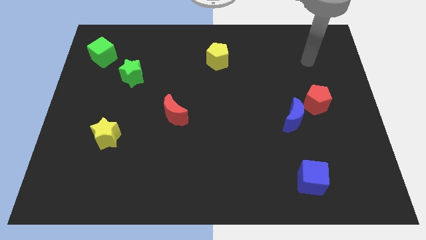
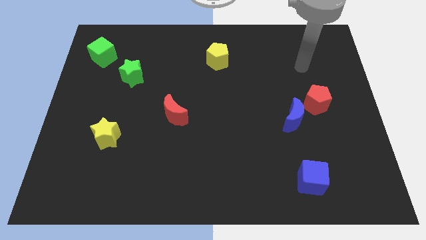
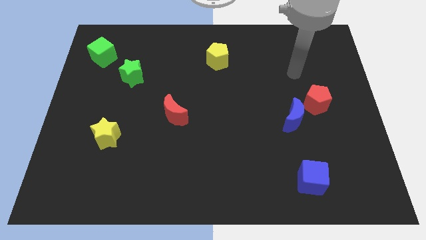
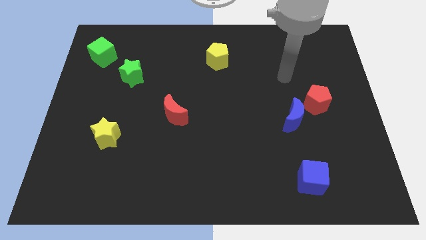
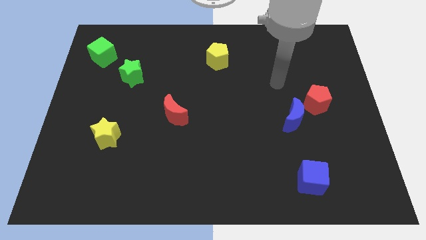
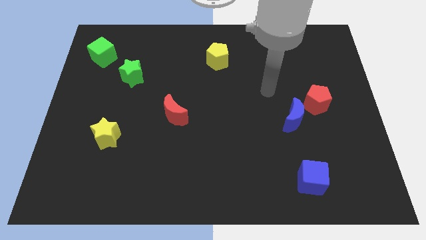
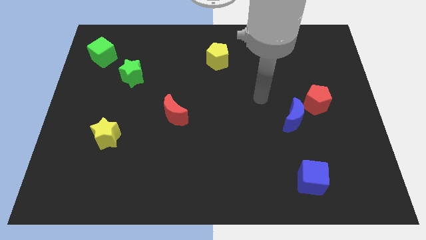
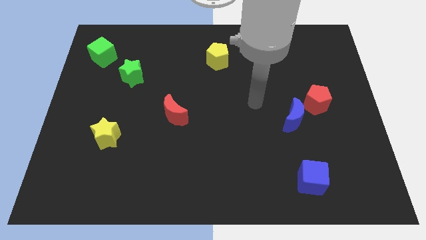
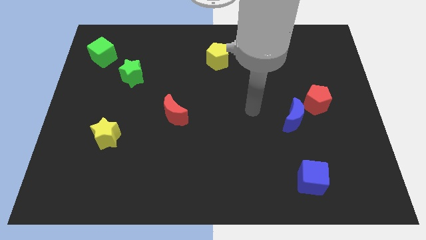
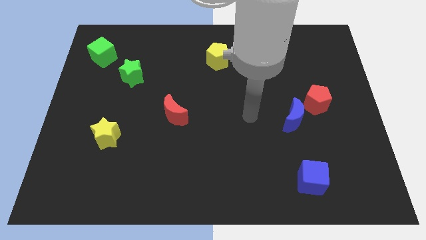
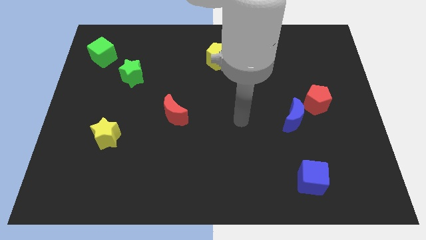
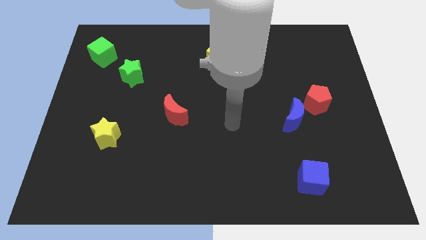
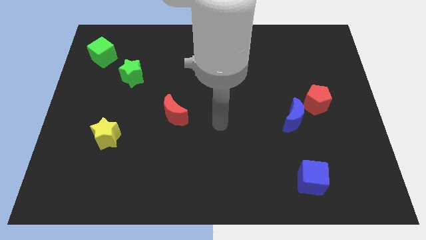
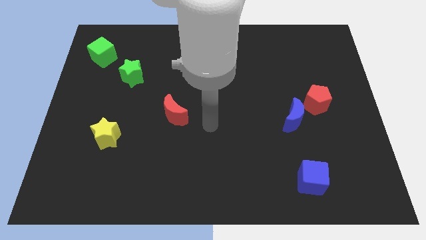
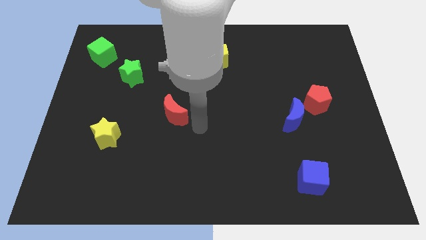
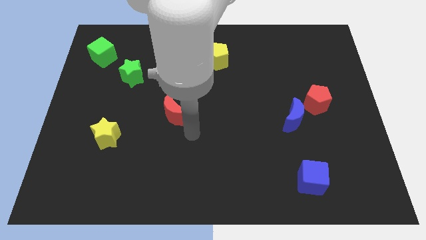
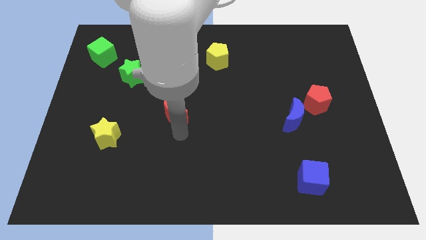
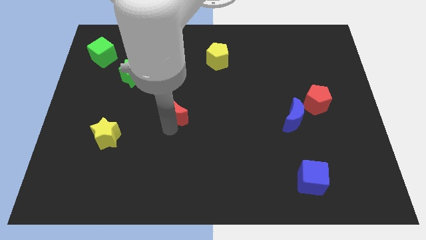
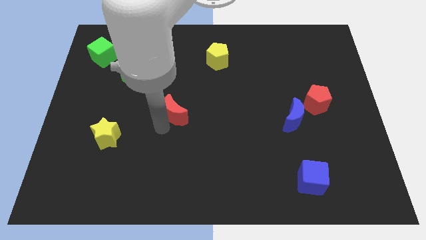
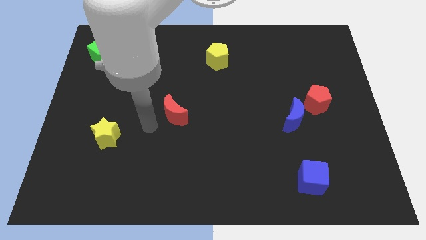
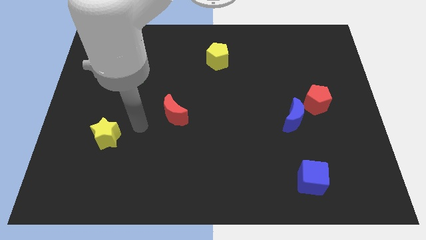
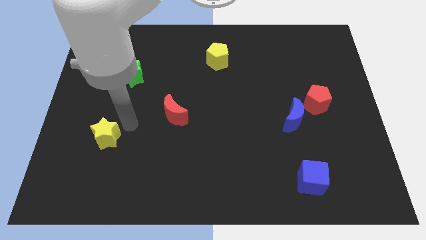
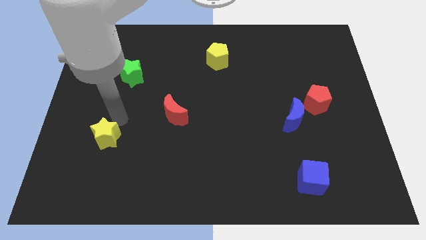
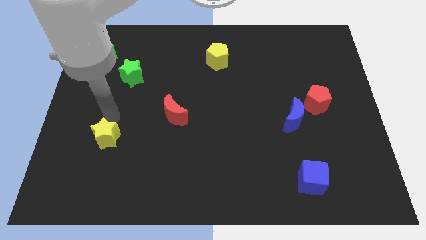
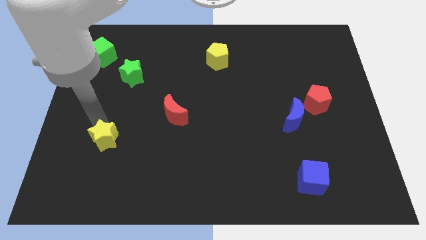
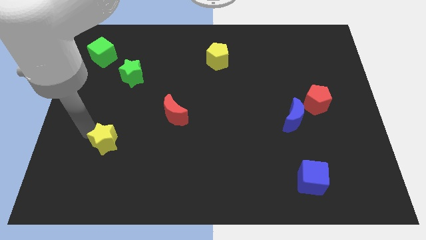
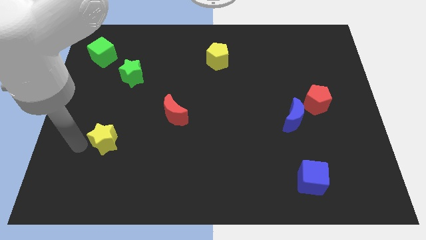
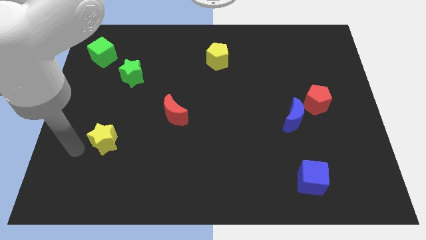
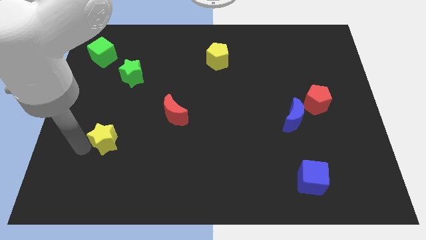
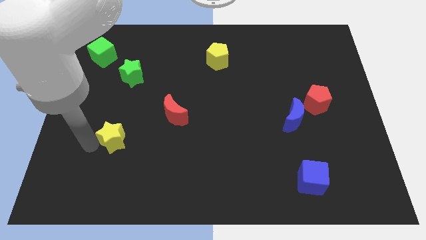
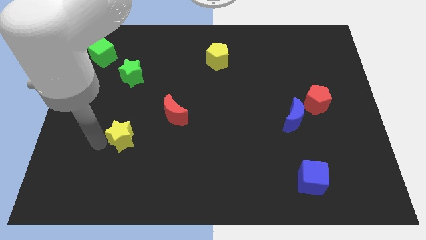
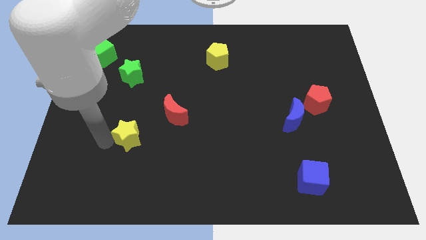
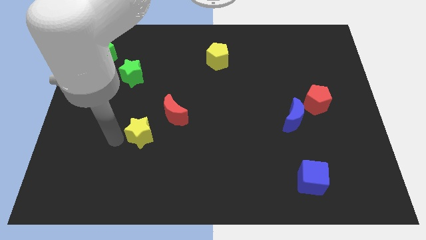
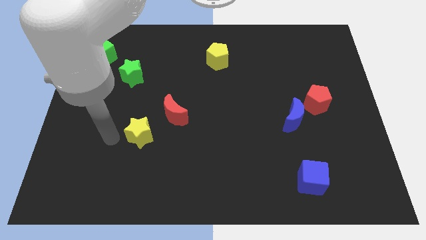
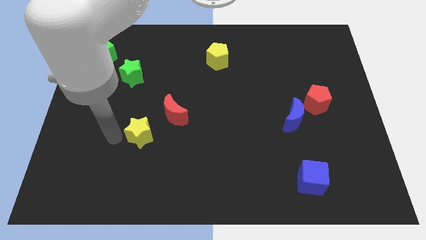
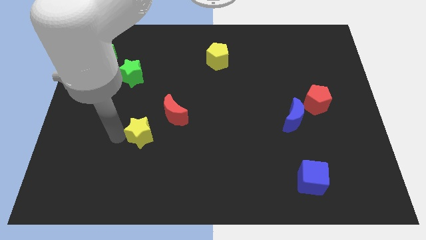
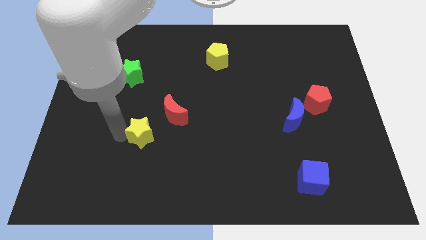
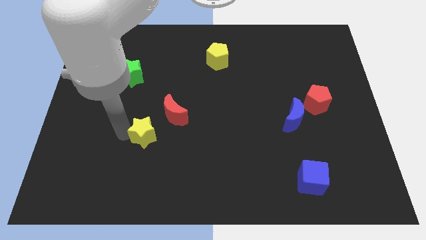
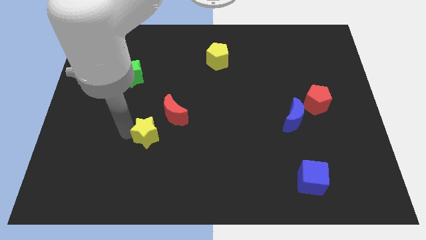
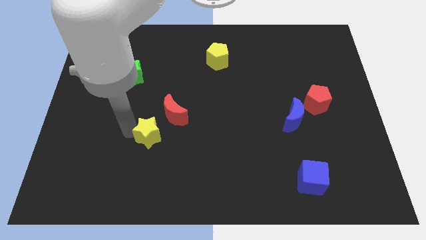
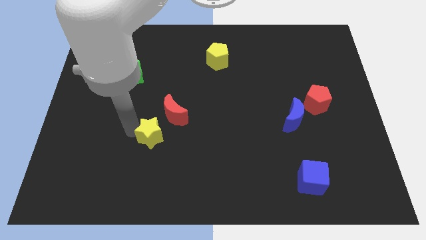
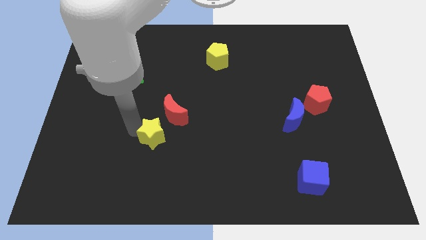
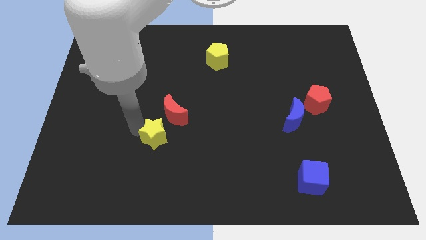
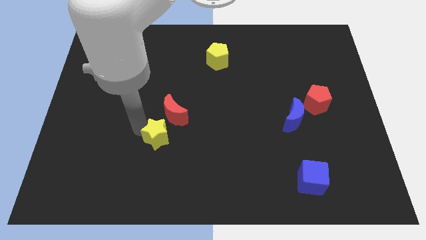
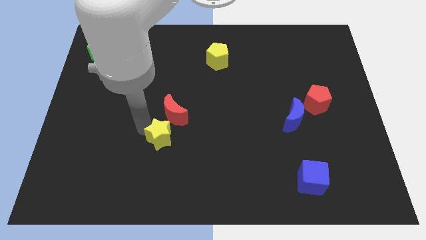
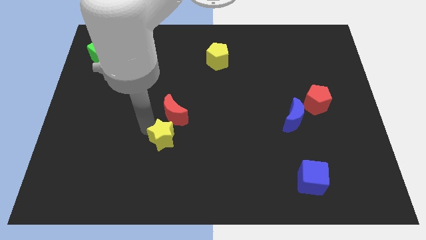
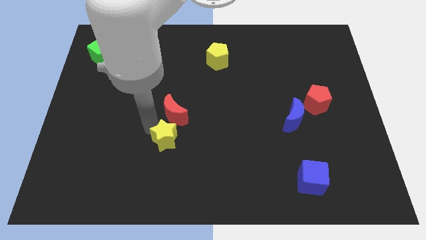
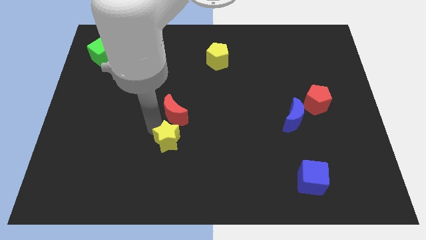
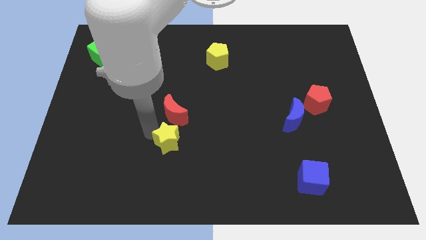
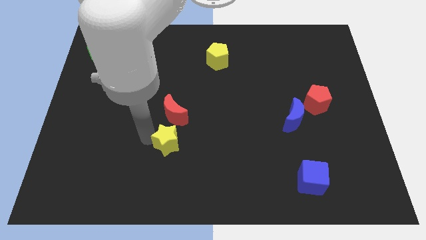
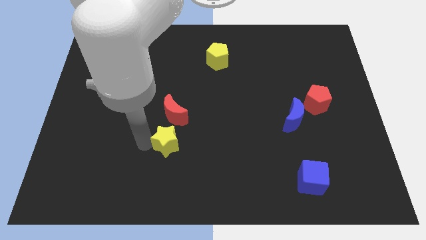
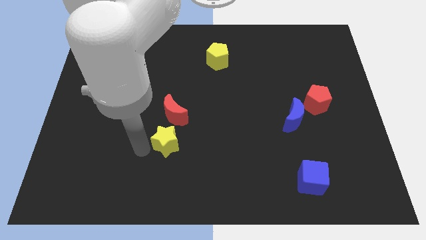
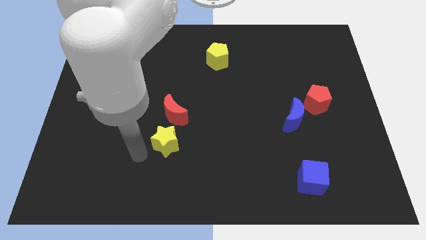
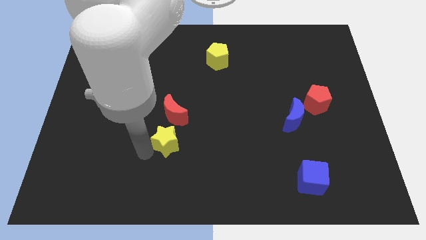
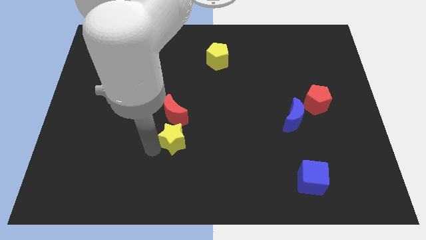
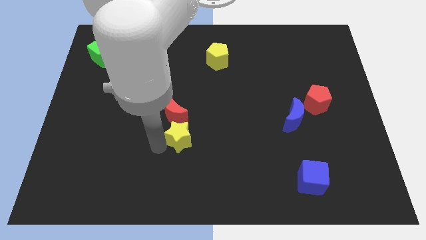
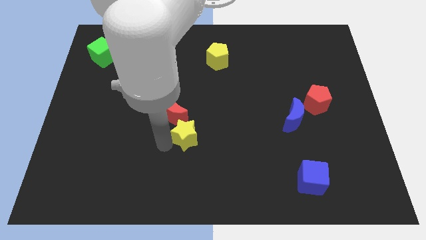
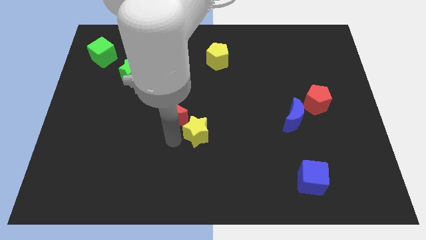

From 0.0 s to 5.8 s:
push the yellow star right

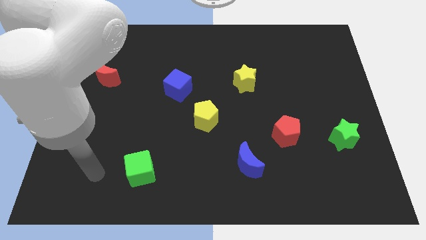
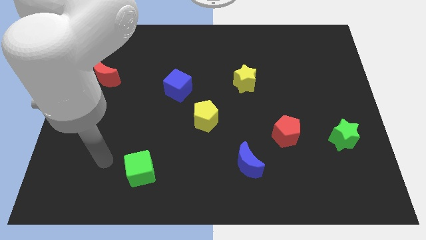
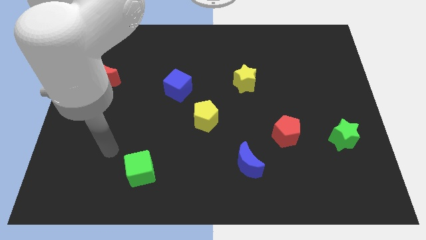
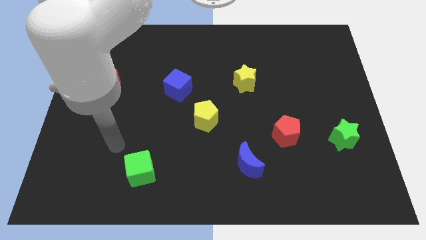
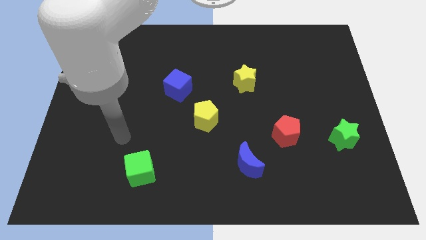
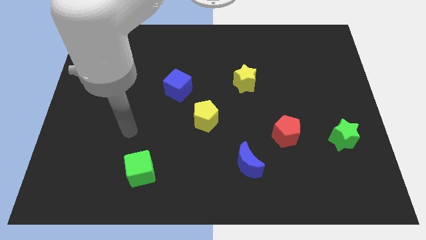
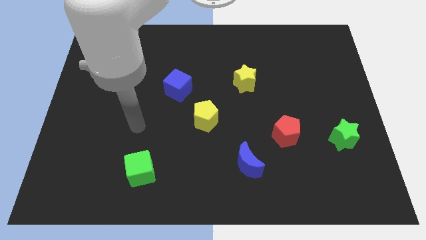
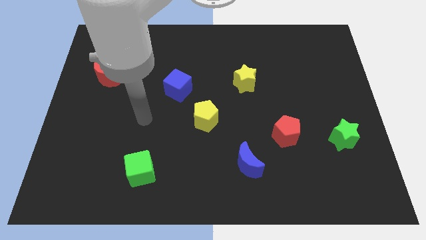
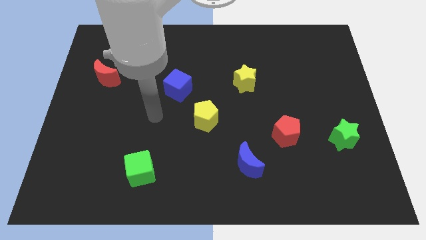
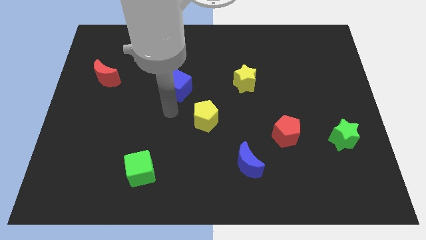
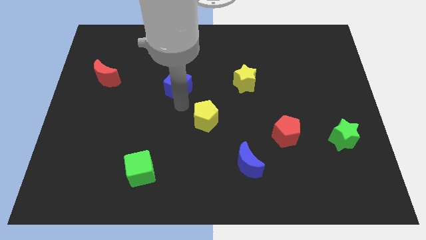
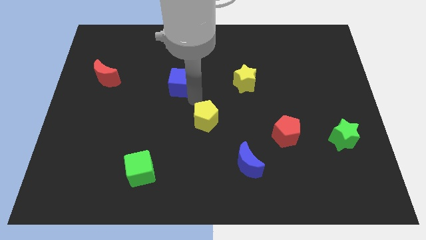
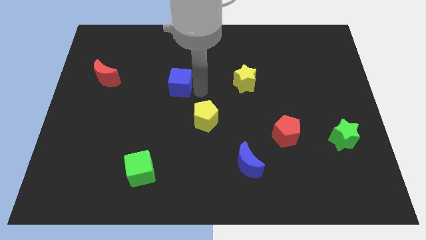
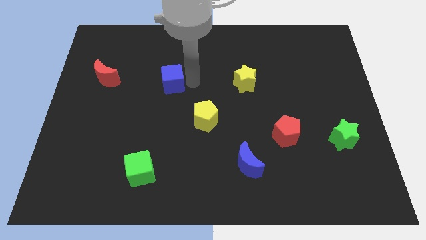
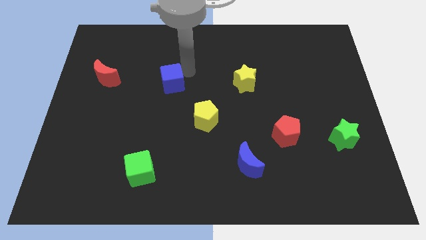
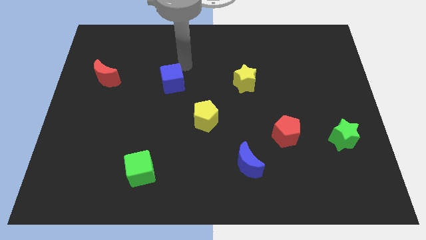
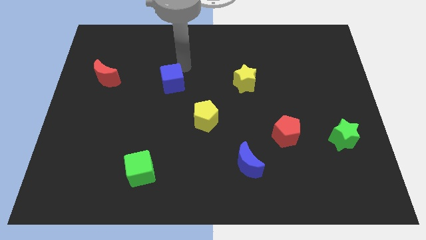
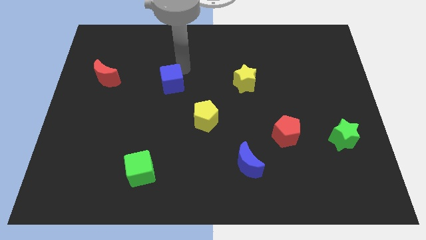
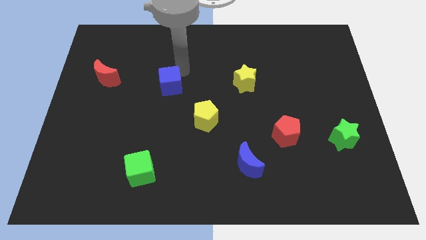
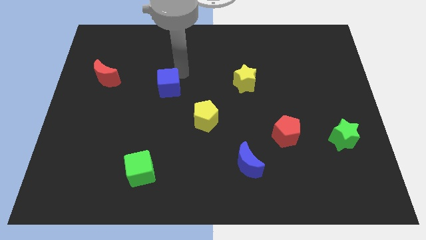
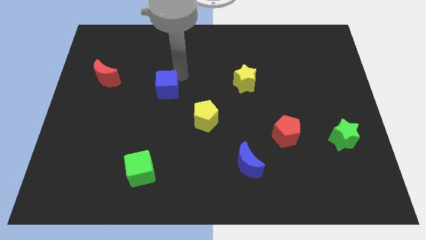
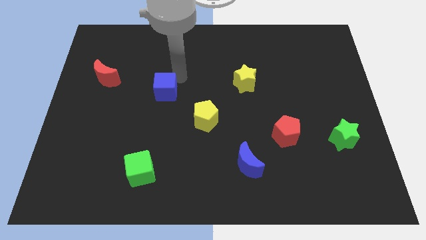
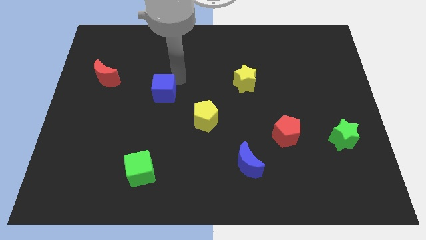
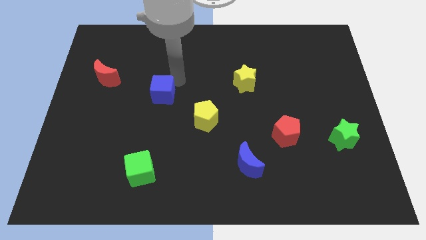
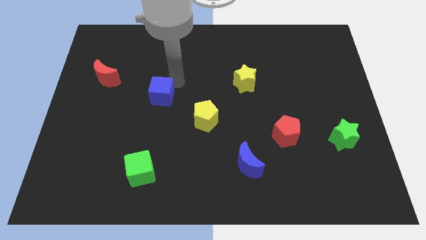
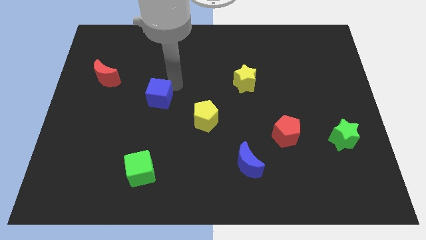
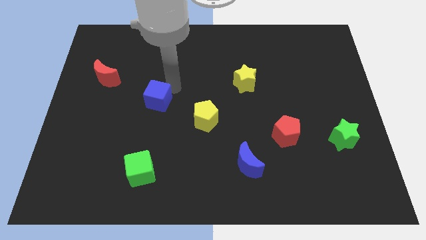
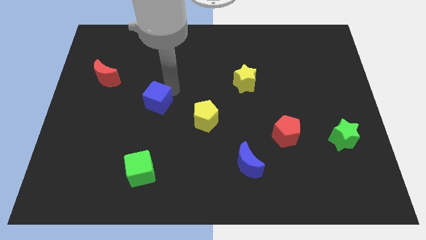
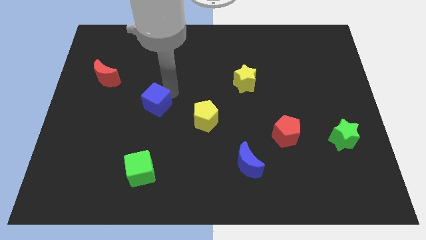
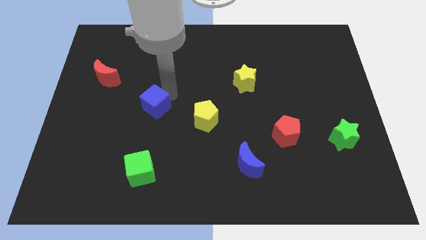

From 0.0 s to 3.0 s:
move the blue cube down and left slightly
